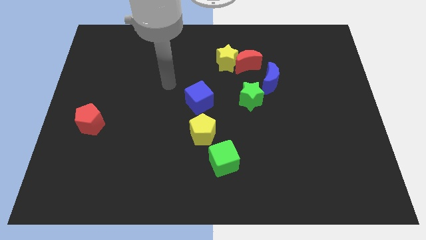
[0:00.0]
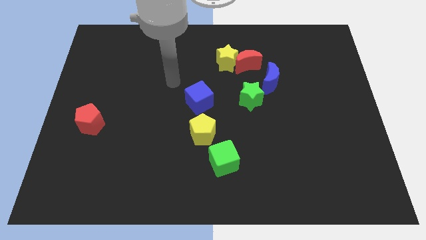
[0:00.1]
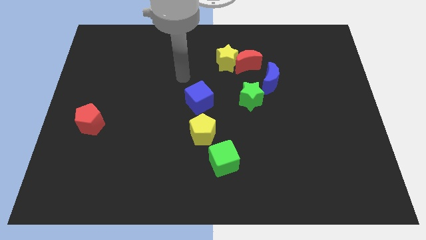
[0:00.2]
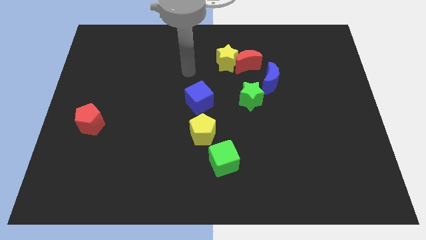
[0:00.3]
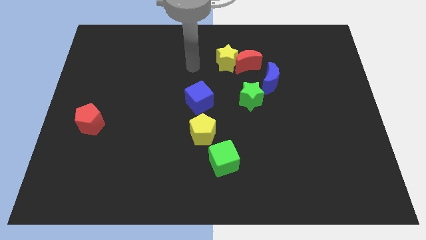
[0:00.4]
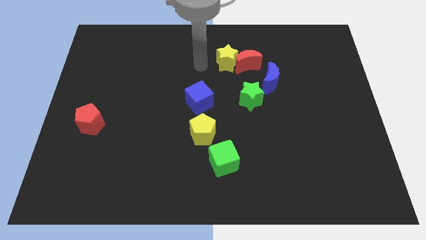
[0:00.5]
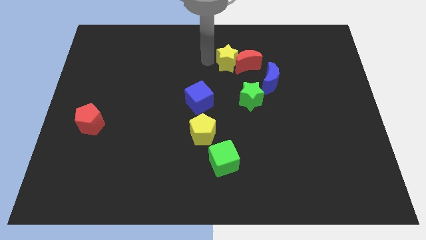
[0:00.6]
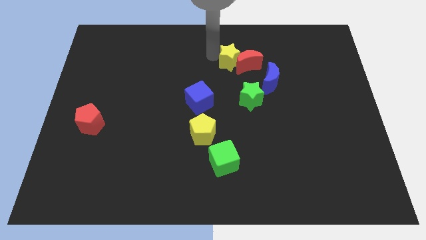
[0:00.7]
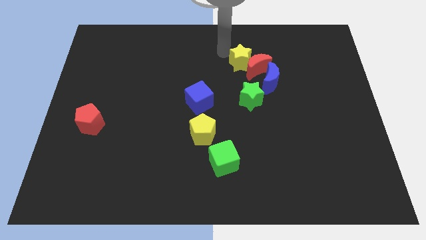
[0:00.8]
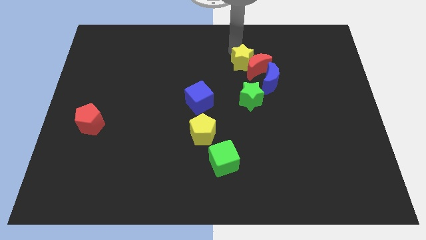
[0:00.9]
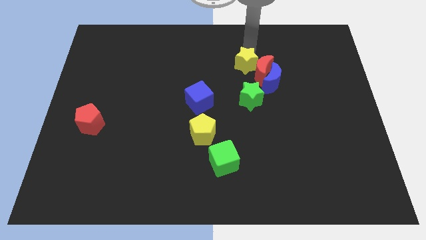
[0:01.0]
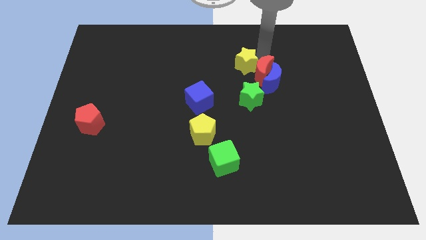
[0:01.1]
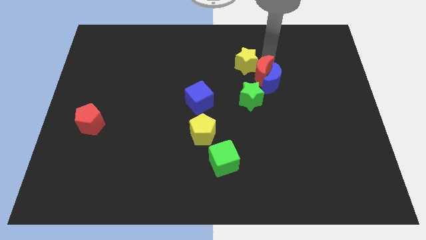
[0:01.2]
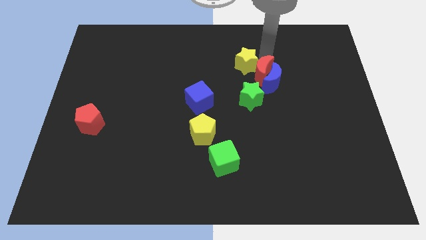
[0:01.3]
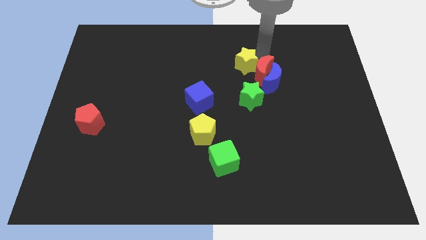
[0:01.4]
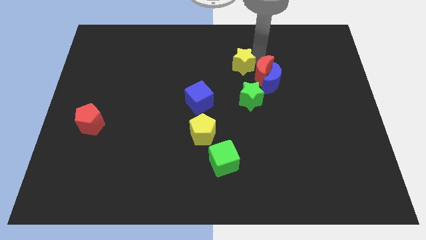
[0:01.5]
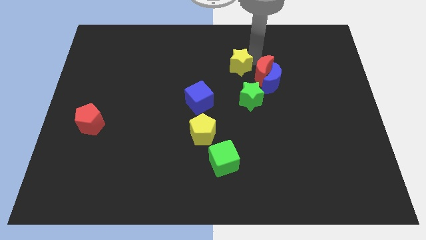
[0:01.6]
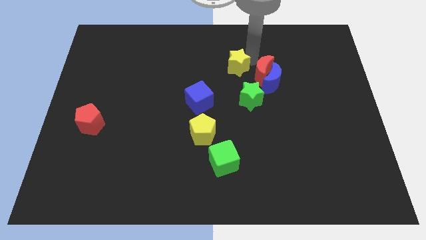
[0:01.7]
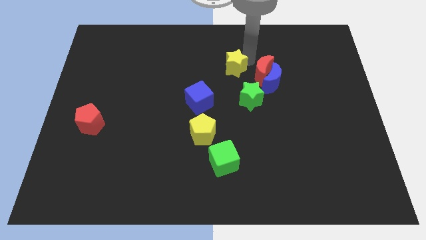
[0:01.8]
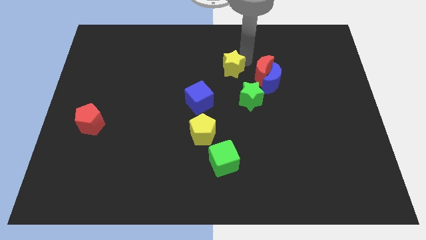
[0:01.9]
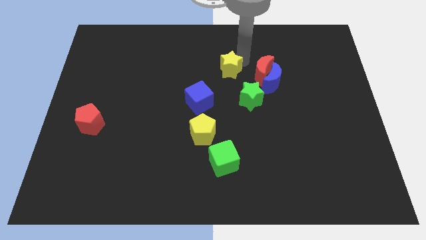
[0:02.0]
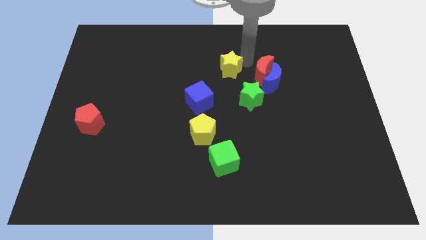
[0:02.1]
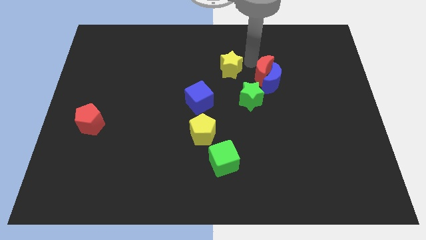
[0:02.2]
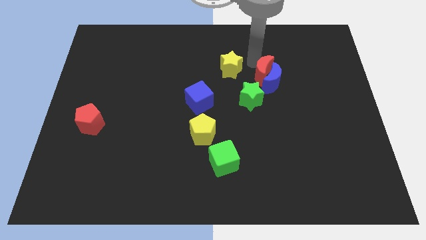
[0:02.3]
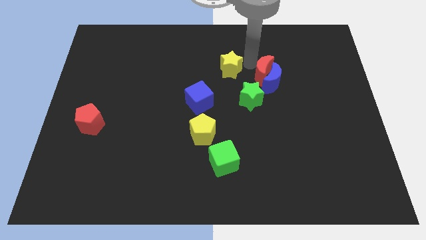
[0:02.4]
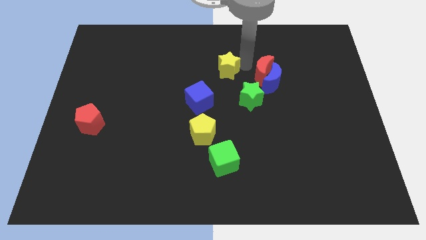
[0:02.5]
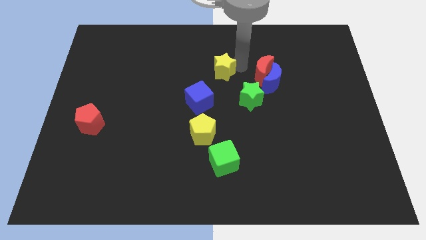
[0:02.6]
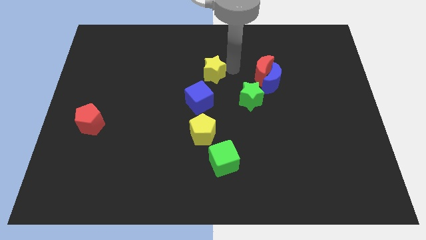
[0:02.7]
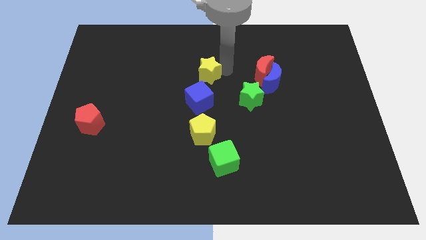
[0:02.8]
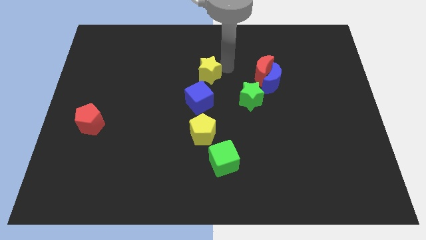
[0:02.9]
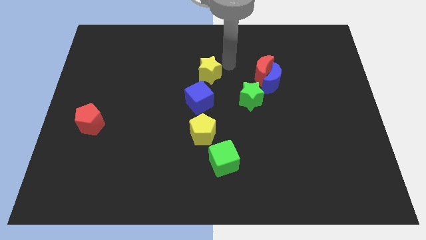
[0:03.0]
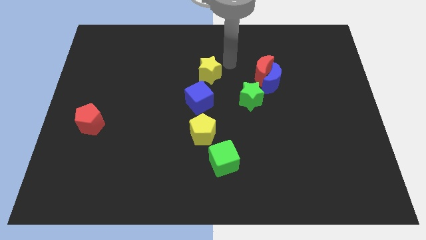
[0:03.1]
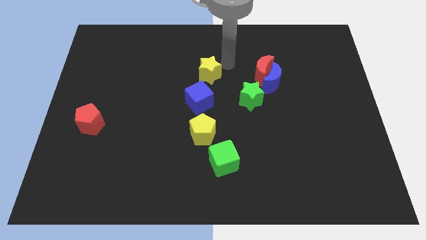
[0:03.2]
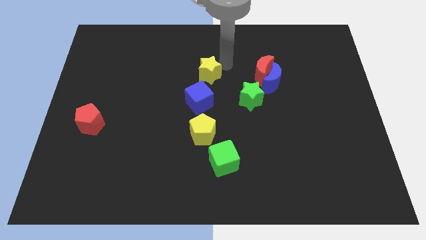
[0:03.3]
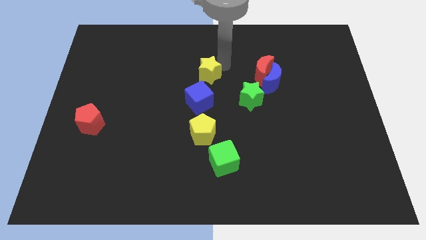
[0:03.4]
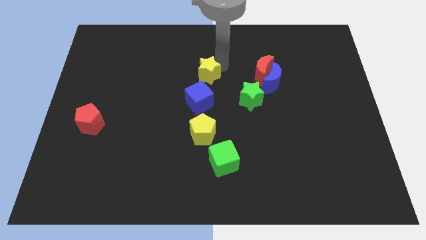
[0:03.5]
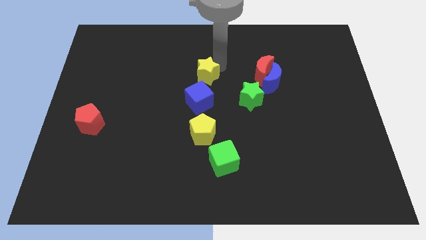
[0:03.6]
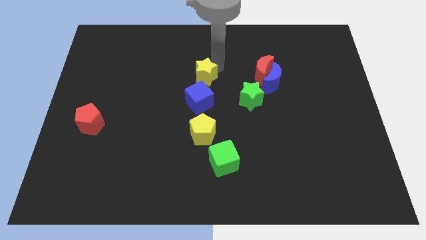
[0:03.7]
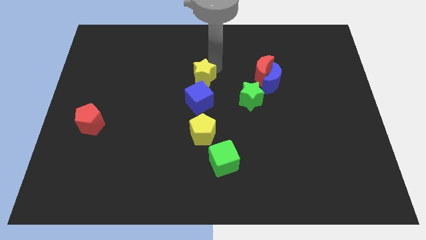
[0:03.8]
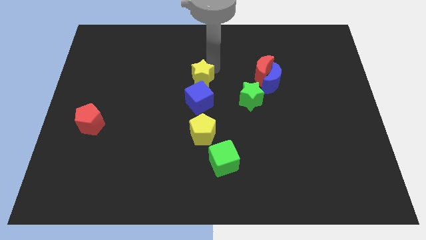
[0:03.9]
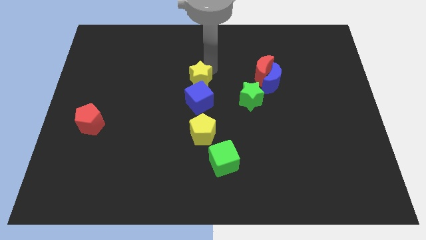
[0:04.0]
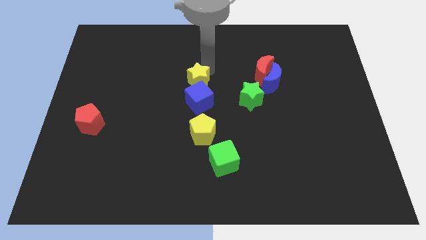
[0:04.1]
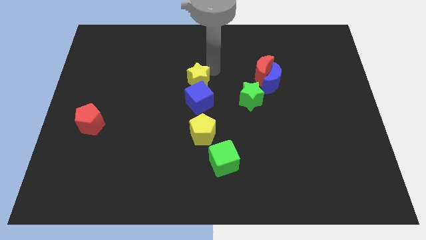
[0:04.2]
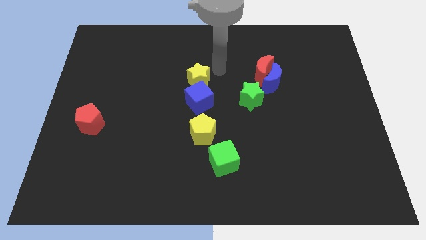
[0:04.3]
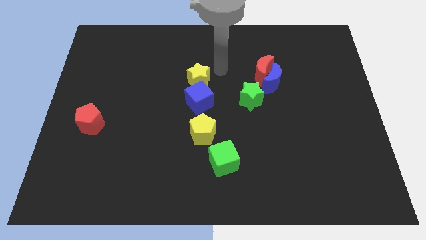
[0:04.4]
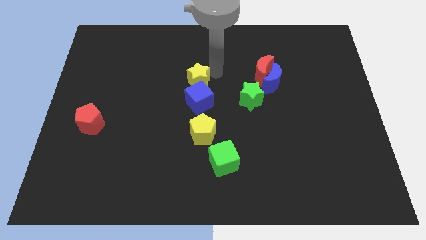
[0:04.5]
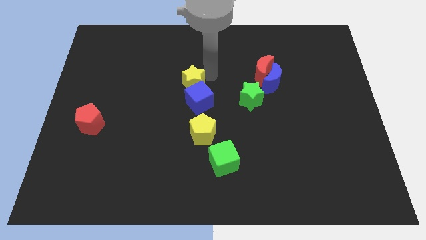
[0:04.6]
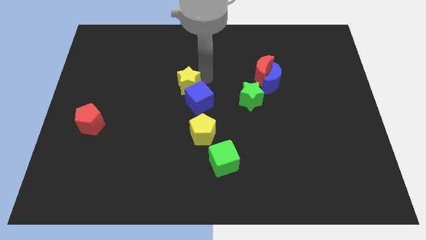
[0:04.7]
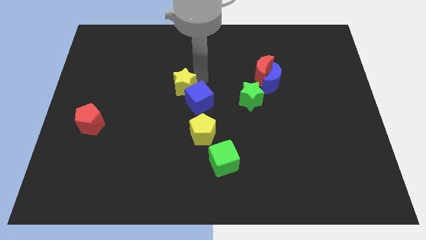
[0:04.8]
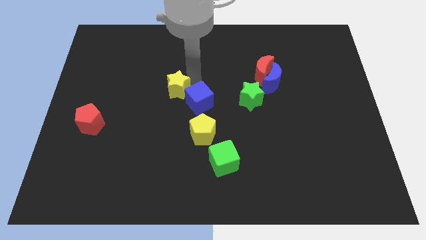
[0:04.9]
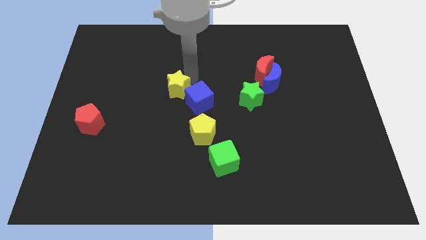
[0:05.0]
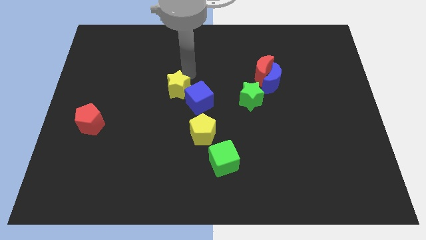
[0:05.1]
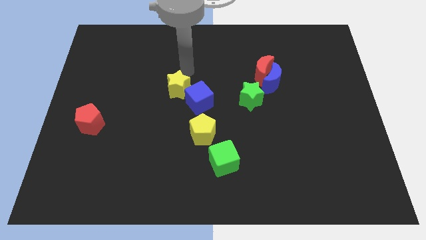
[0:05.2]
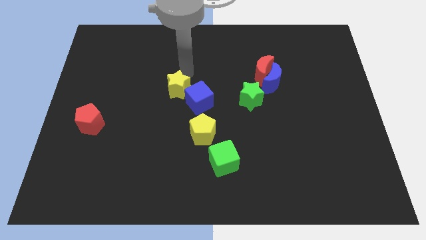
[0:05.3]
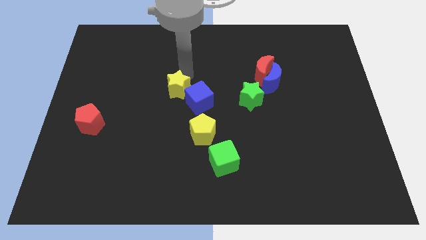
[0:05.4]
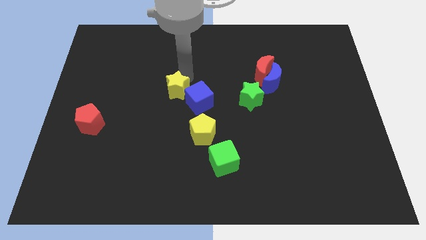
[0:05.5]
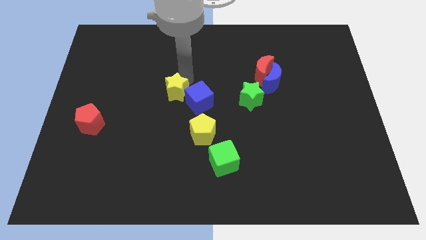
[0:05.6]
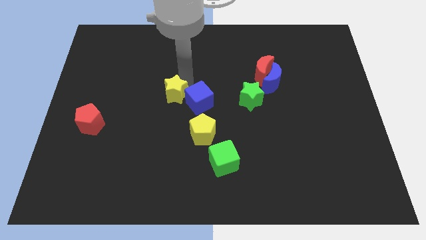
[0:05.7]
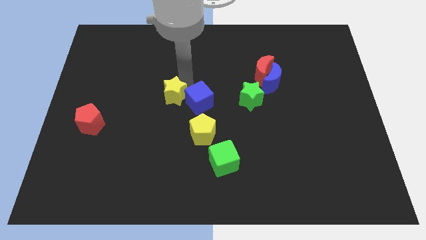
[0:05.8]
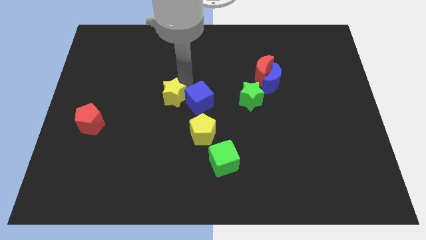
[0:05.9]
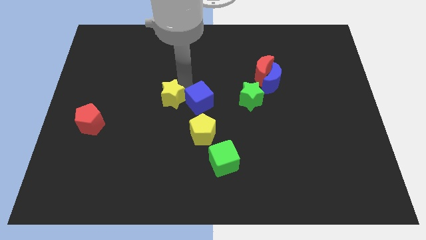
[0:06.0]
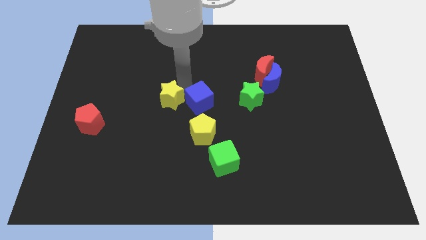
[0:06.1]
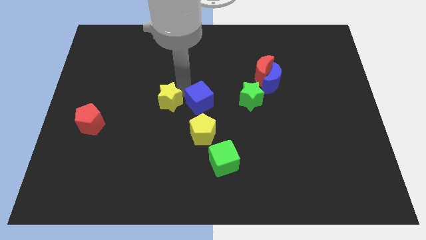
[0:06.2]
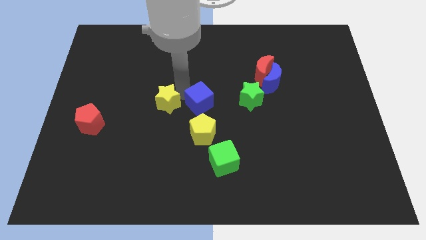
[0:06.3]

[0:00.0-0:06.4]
push the yellow star downwards and left diagonally

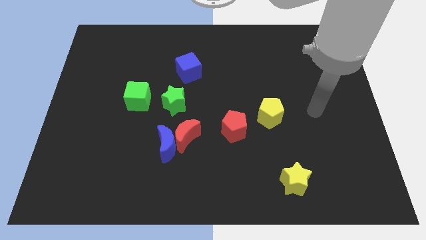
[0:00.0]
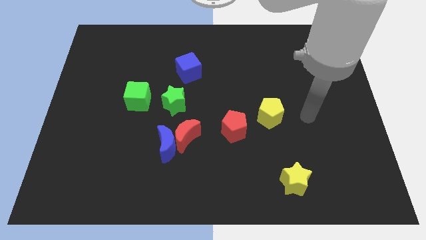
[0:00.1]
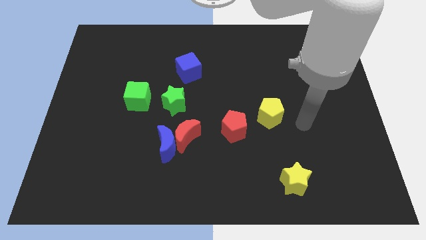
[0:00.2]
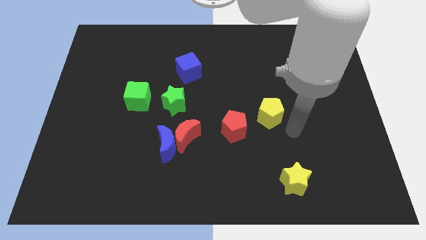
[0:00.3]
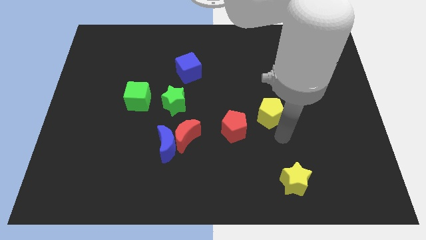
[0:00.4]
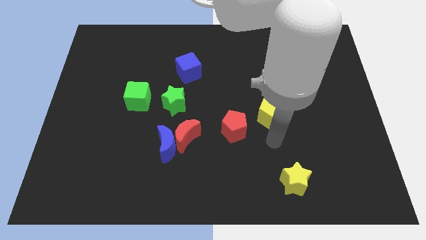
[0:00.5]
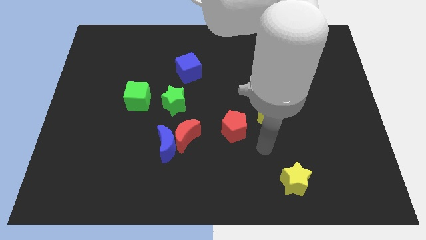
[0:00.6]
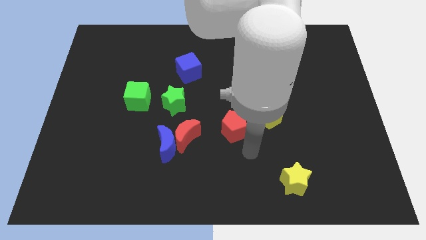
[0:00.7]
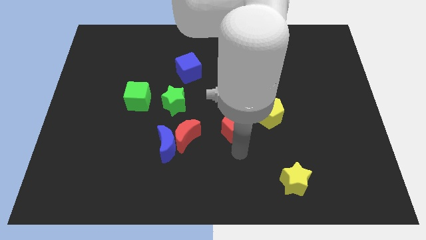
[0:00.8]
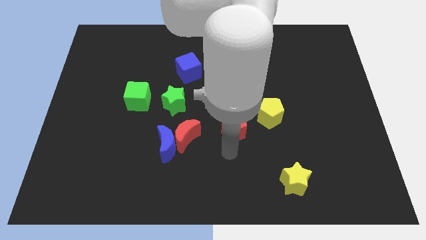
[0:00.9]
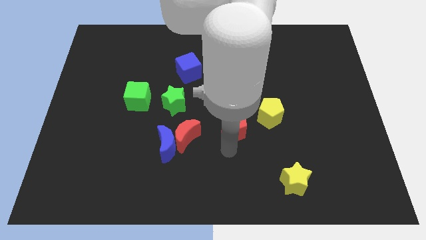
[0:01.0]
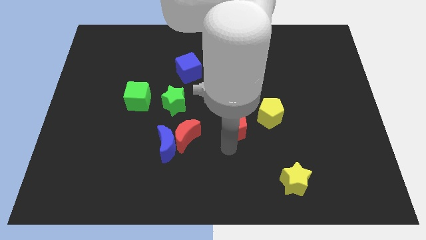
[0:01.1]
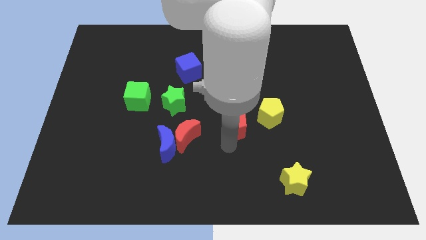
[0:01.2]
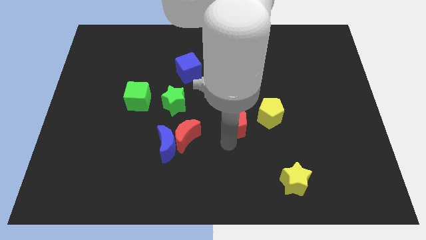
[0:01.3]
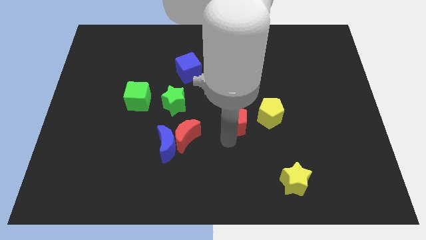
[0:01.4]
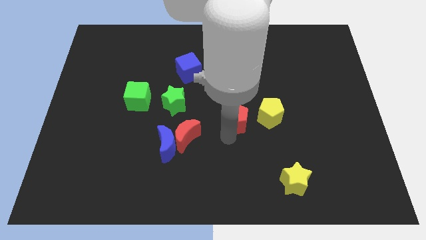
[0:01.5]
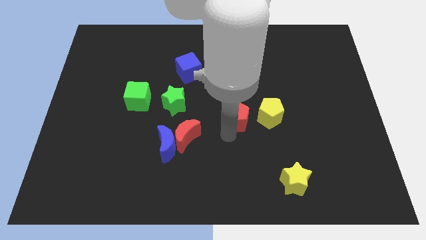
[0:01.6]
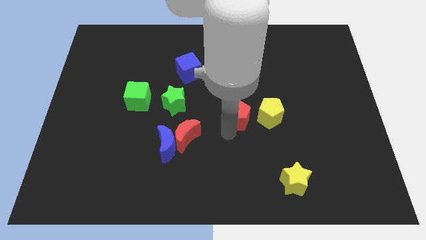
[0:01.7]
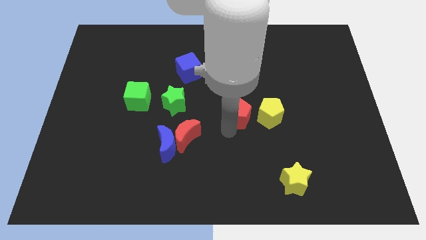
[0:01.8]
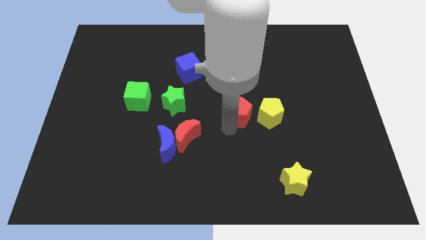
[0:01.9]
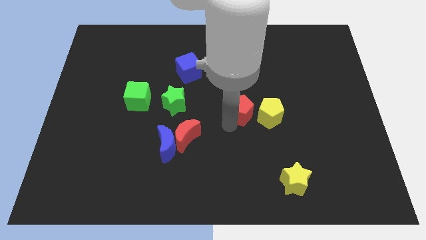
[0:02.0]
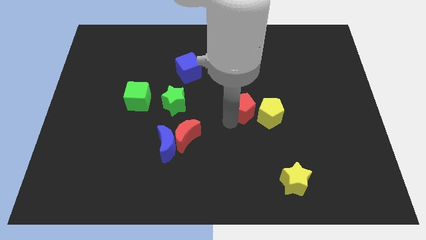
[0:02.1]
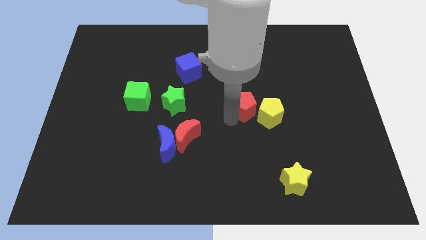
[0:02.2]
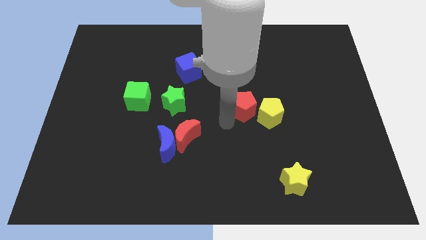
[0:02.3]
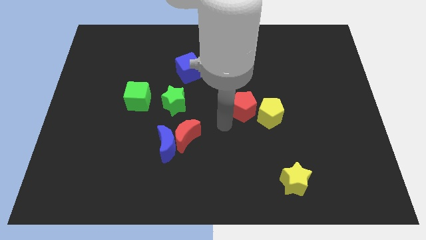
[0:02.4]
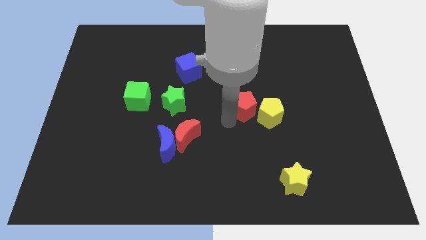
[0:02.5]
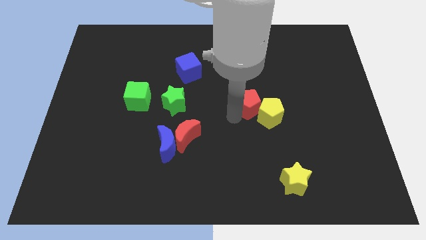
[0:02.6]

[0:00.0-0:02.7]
move the red pentagon upwards and then right a little bit
